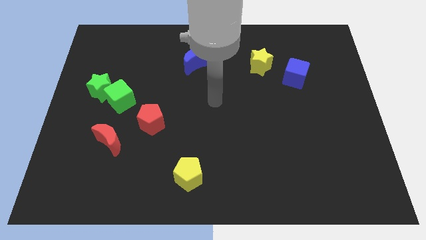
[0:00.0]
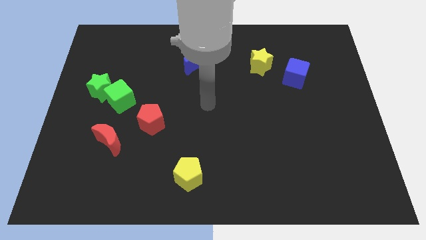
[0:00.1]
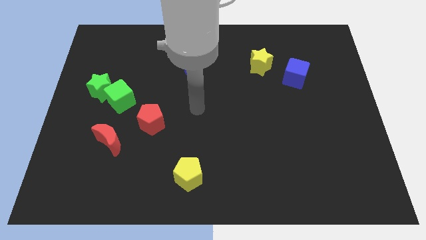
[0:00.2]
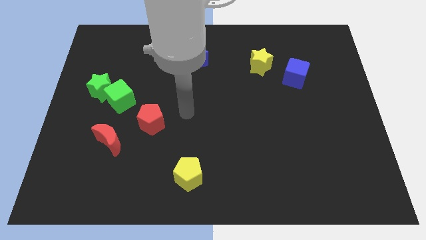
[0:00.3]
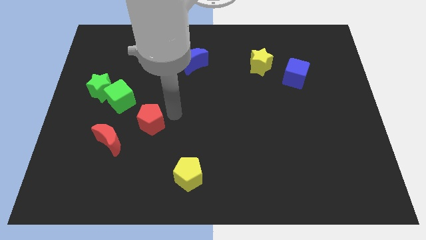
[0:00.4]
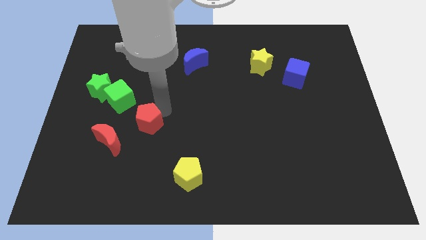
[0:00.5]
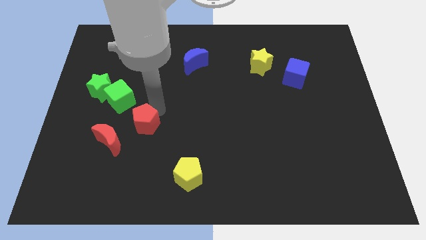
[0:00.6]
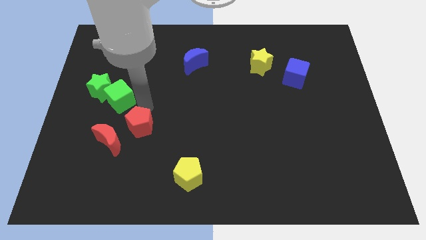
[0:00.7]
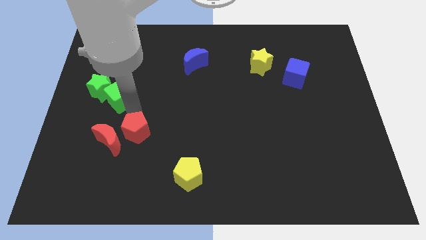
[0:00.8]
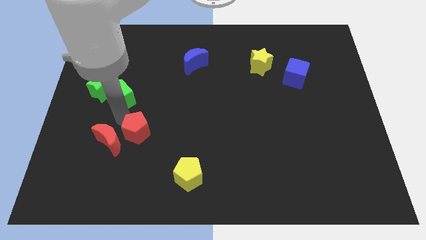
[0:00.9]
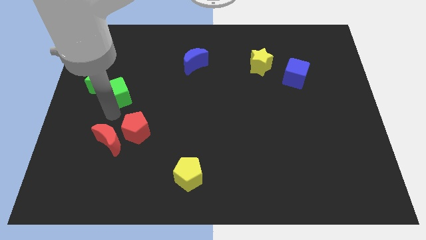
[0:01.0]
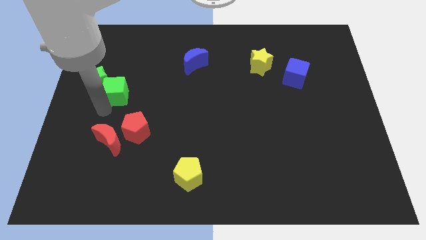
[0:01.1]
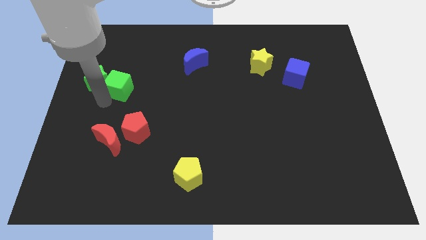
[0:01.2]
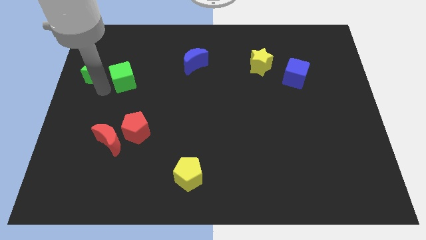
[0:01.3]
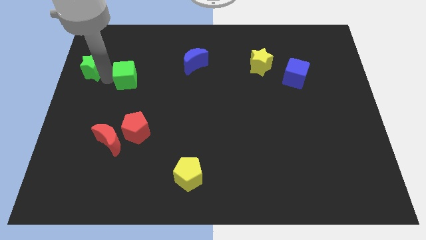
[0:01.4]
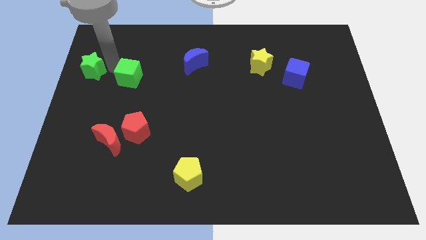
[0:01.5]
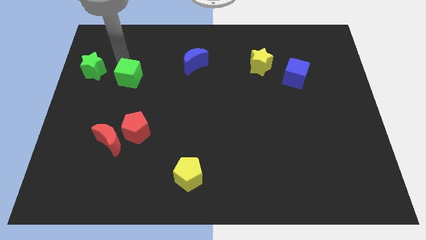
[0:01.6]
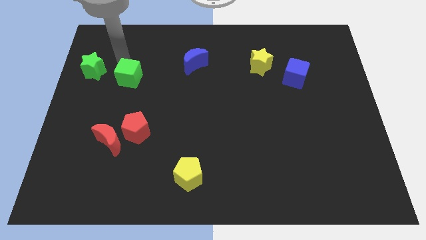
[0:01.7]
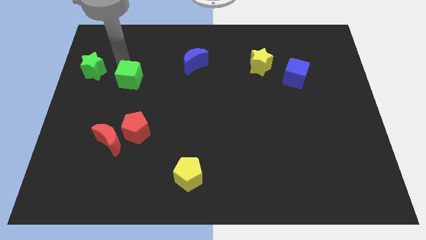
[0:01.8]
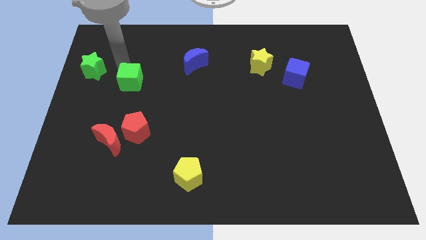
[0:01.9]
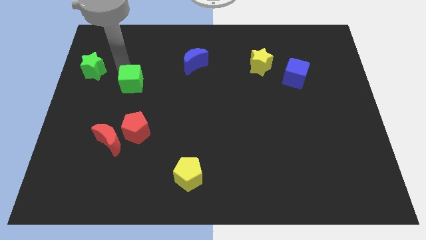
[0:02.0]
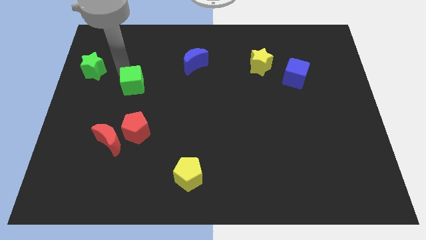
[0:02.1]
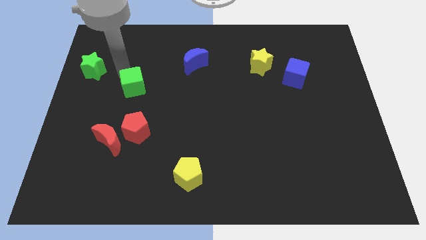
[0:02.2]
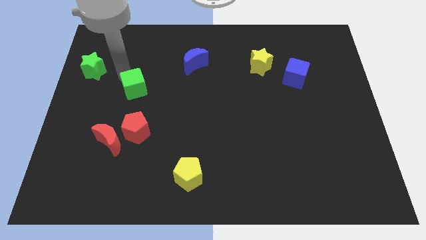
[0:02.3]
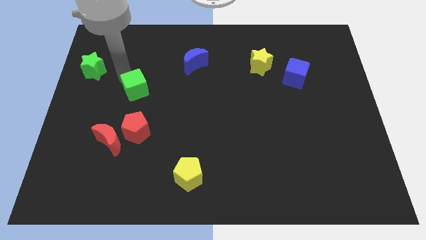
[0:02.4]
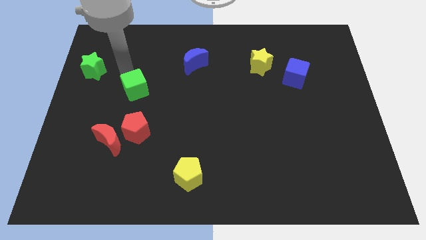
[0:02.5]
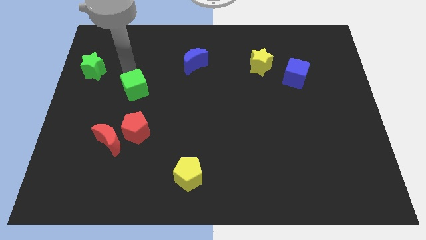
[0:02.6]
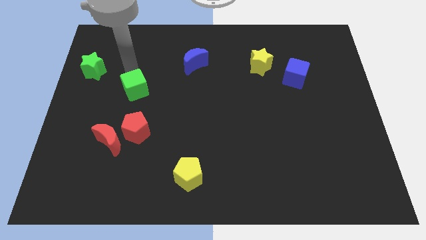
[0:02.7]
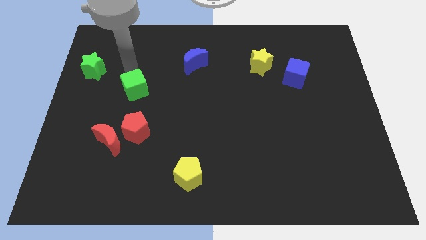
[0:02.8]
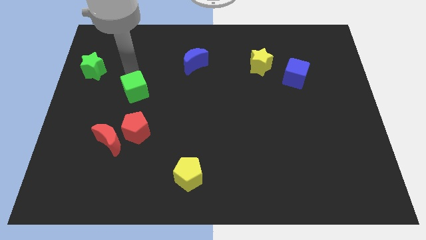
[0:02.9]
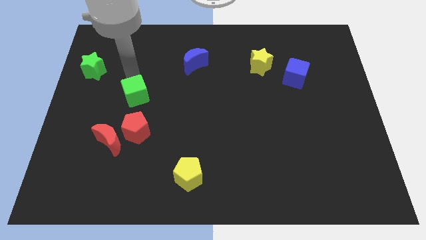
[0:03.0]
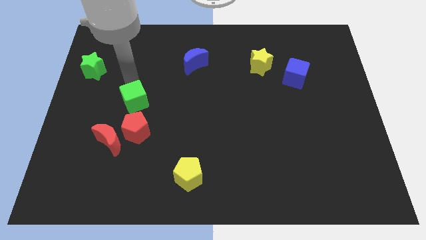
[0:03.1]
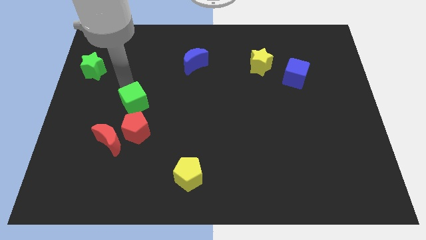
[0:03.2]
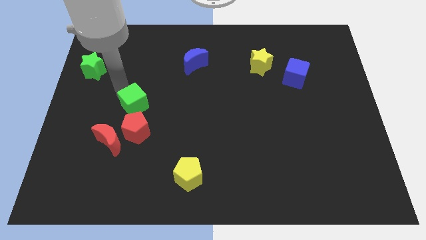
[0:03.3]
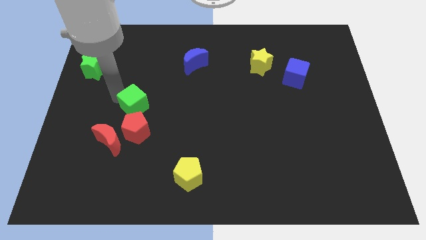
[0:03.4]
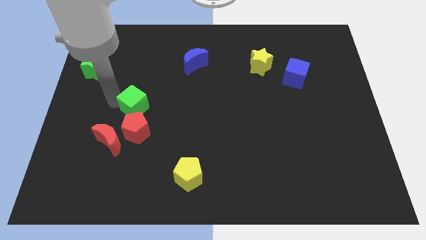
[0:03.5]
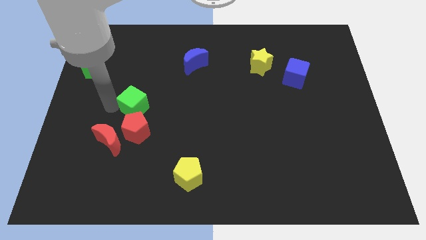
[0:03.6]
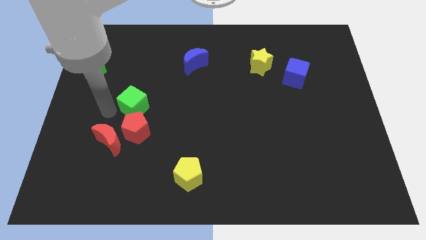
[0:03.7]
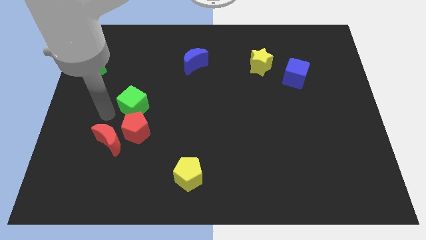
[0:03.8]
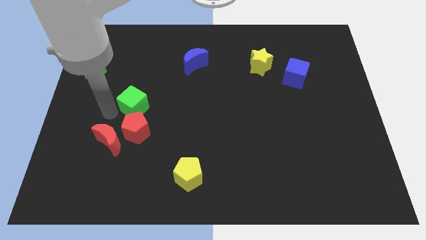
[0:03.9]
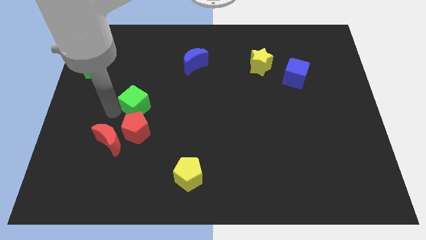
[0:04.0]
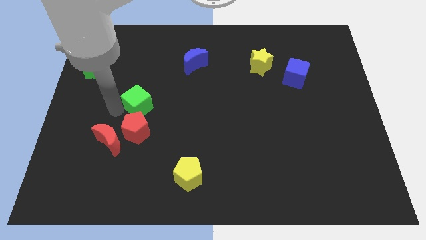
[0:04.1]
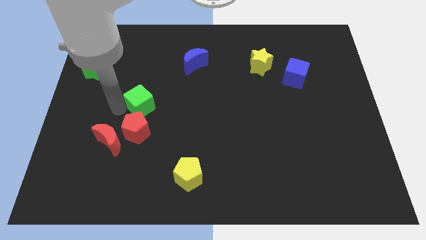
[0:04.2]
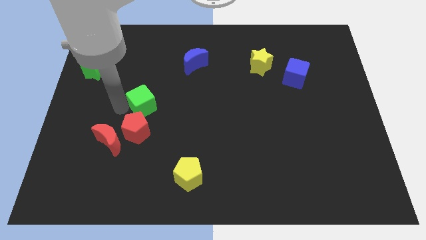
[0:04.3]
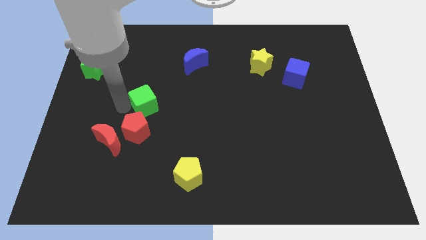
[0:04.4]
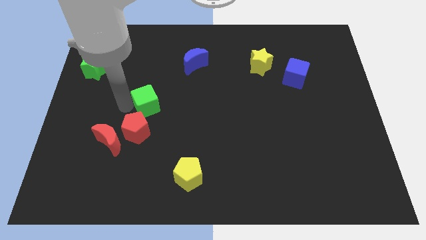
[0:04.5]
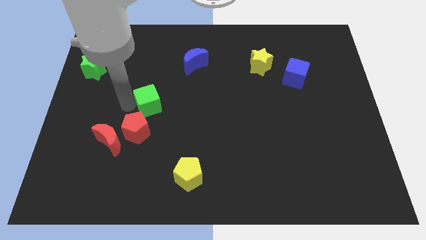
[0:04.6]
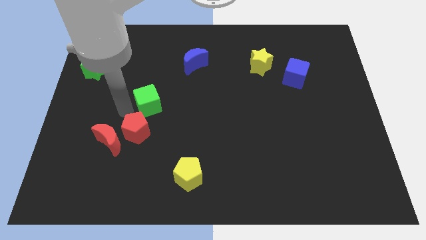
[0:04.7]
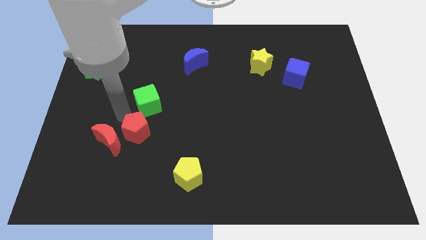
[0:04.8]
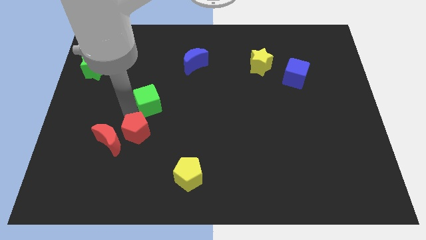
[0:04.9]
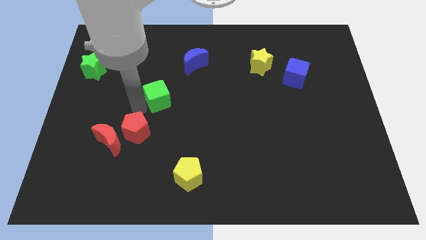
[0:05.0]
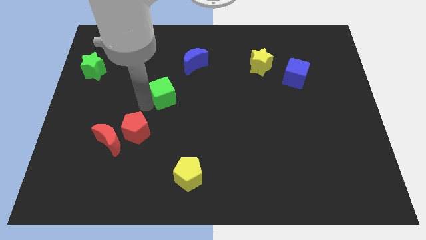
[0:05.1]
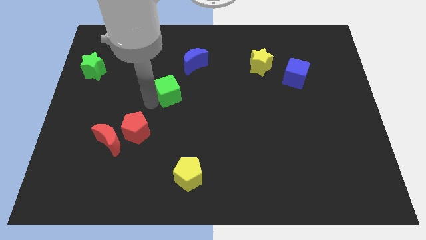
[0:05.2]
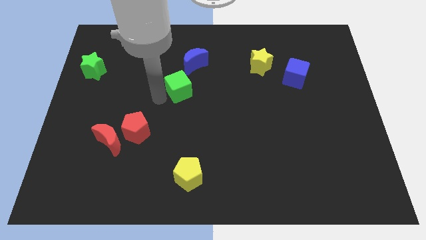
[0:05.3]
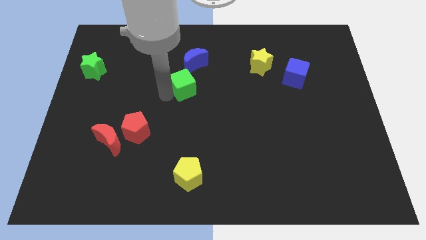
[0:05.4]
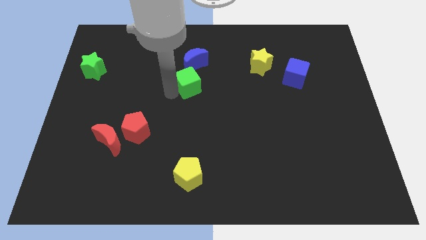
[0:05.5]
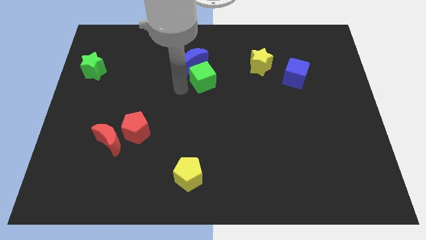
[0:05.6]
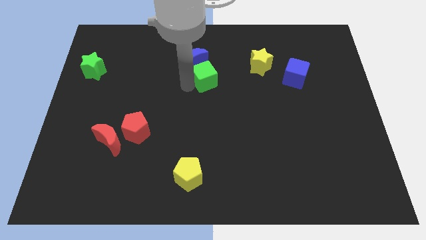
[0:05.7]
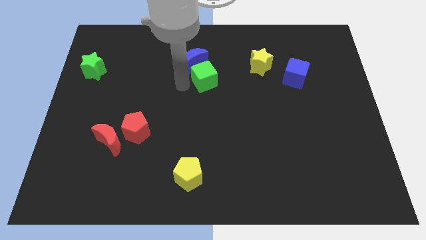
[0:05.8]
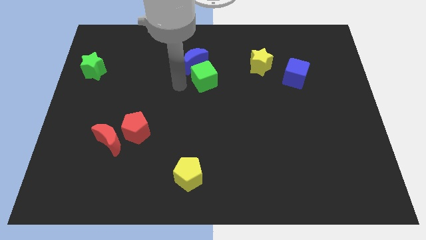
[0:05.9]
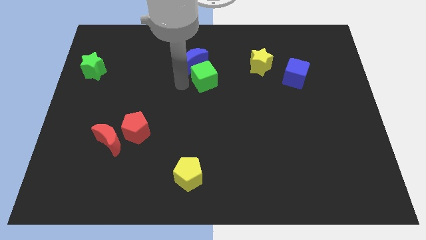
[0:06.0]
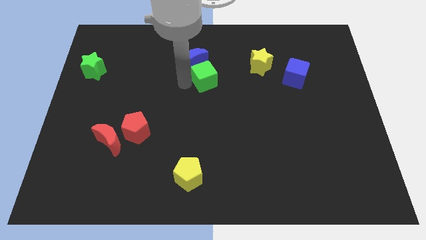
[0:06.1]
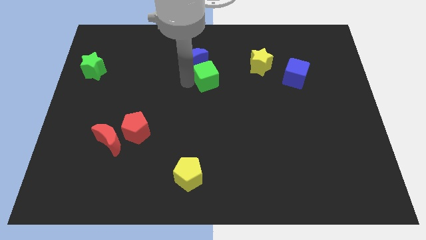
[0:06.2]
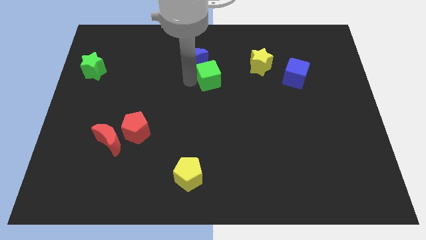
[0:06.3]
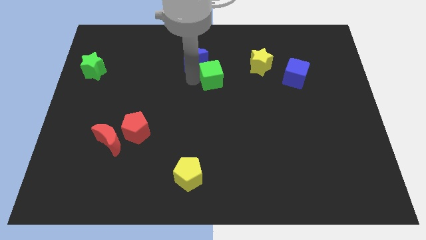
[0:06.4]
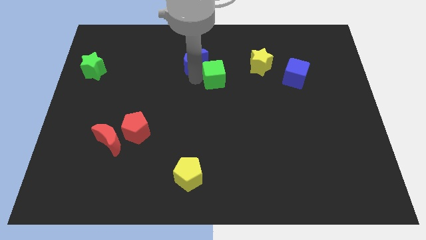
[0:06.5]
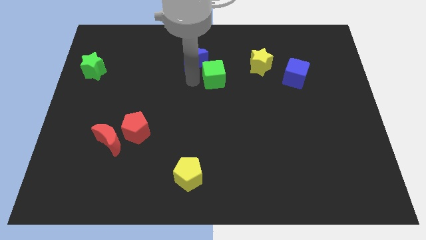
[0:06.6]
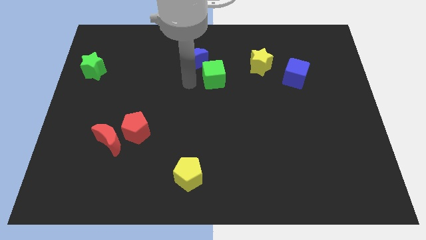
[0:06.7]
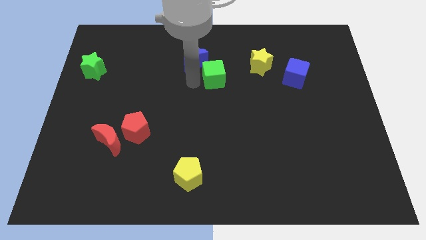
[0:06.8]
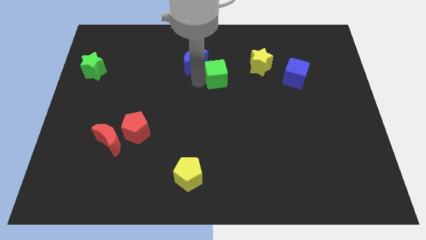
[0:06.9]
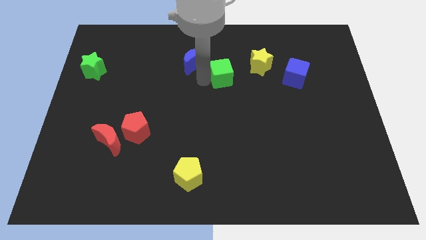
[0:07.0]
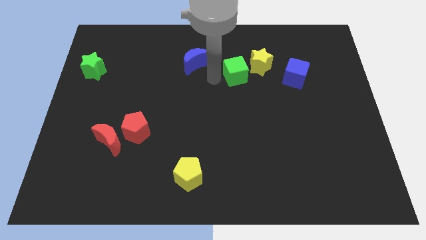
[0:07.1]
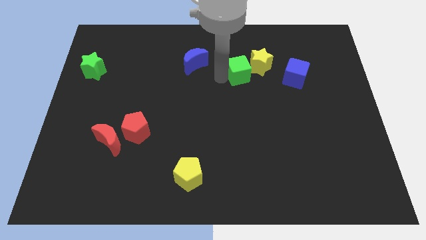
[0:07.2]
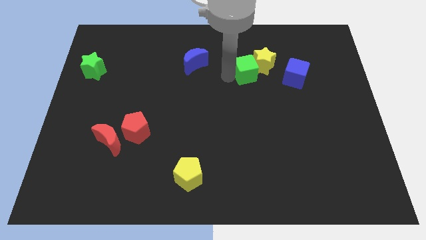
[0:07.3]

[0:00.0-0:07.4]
put the green cube close to the yellow star

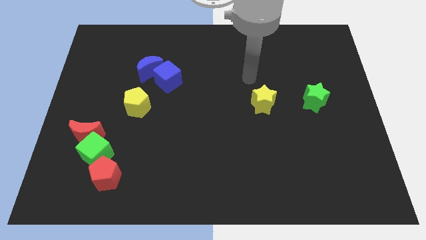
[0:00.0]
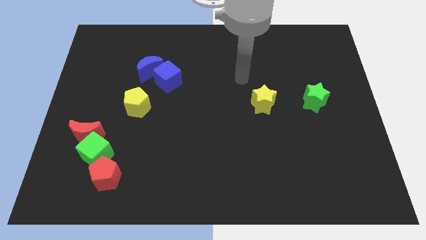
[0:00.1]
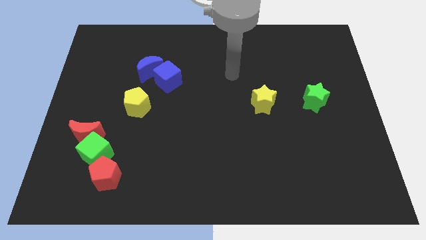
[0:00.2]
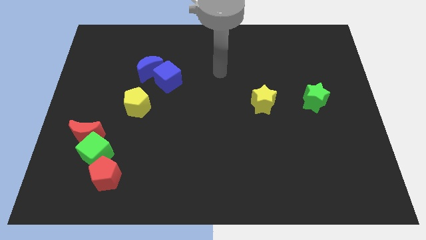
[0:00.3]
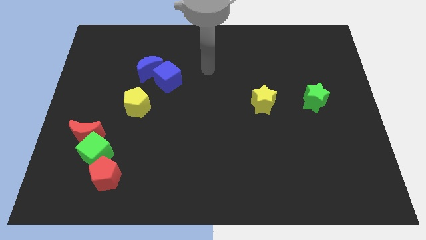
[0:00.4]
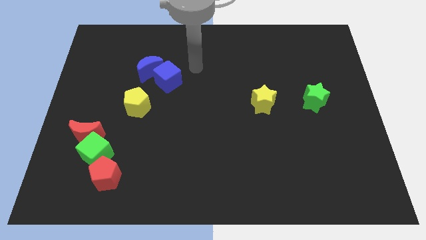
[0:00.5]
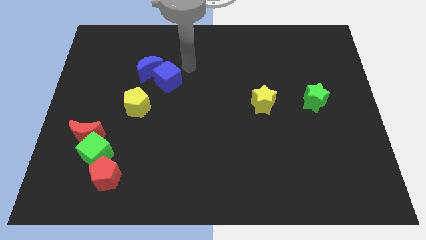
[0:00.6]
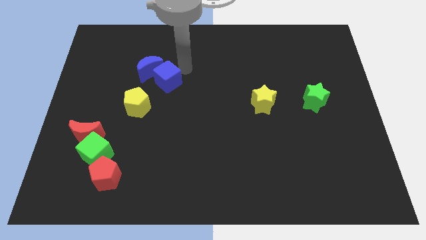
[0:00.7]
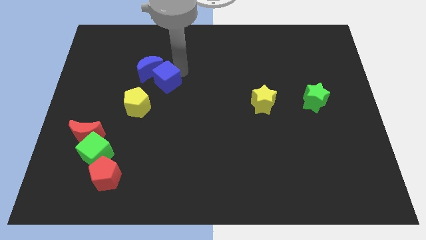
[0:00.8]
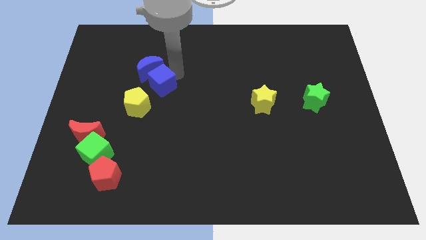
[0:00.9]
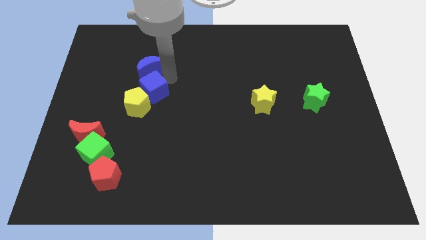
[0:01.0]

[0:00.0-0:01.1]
put the blue cube to the yellow pentagon
